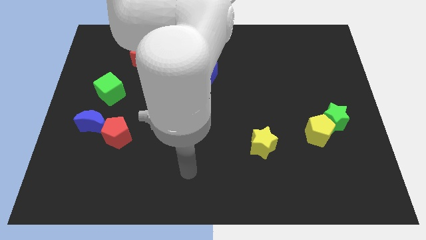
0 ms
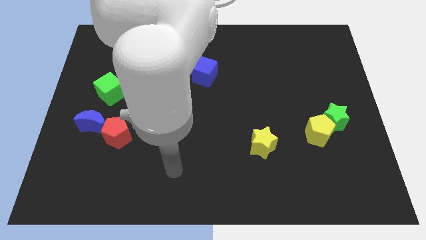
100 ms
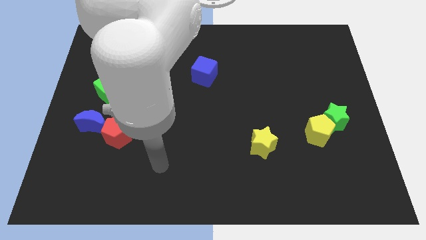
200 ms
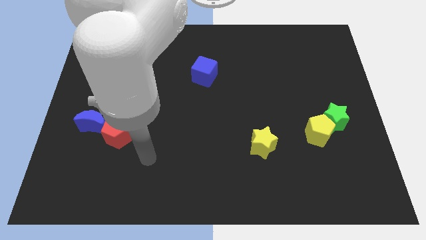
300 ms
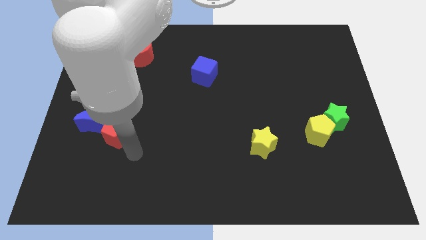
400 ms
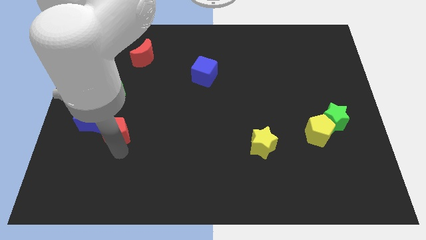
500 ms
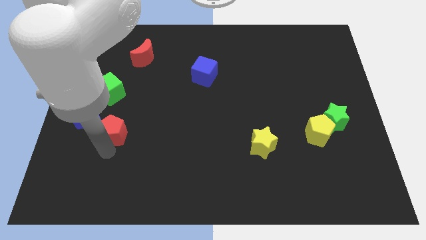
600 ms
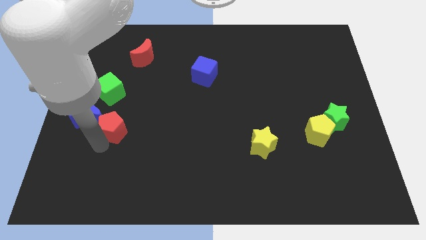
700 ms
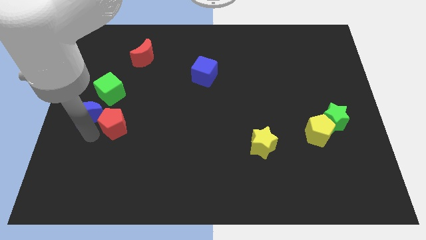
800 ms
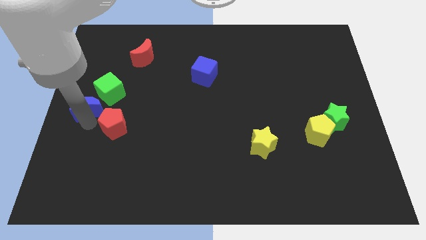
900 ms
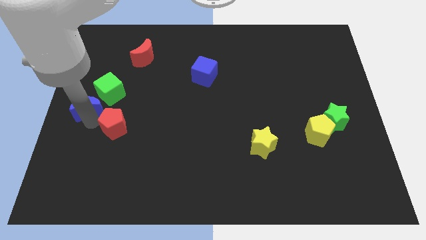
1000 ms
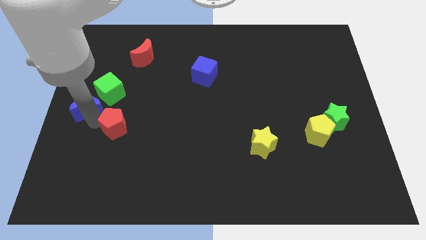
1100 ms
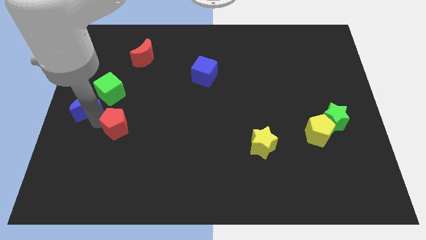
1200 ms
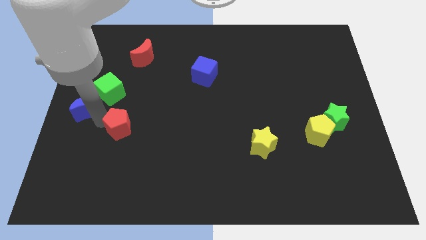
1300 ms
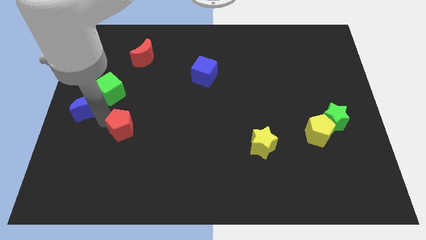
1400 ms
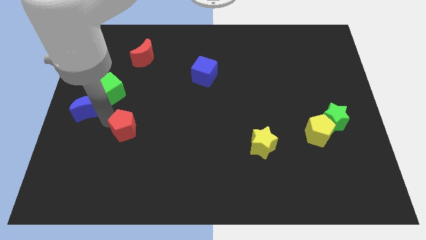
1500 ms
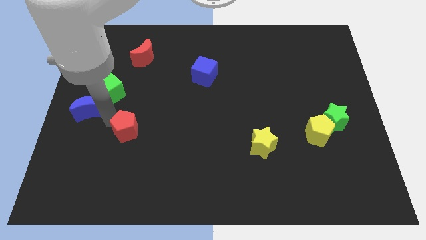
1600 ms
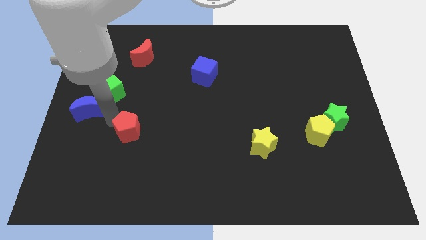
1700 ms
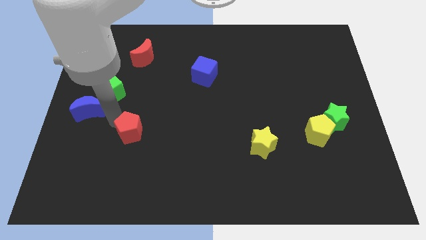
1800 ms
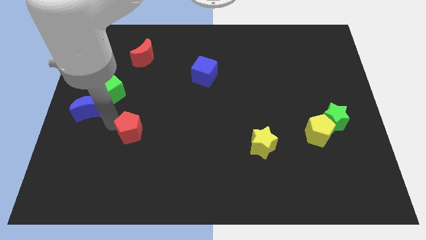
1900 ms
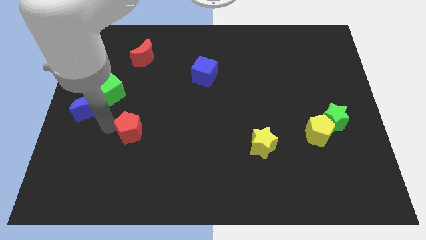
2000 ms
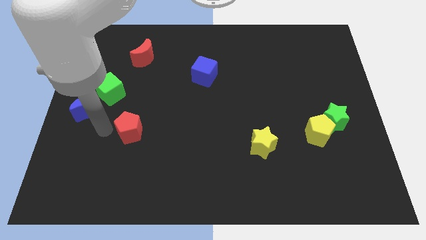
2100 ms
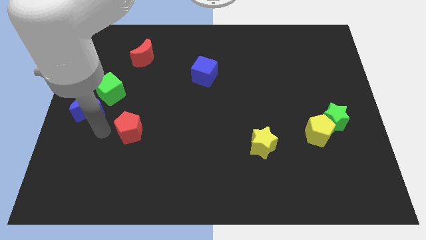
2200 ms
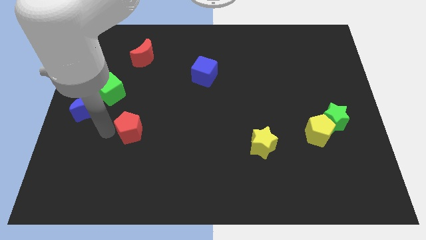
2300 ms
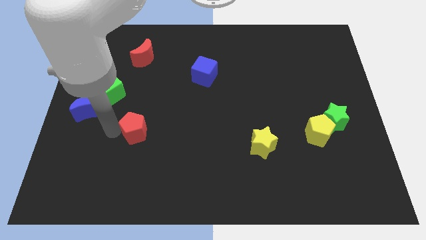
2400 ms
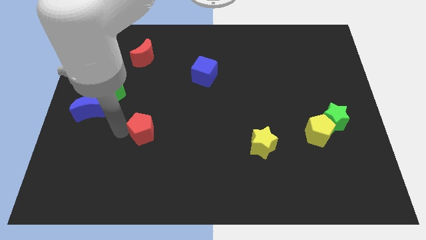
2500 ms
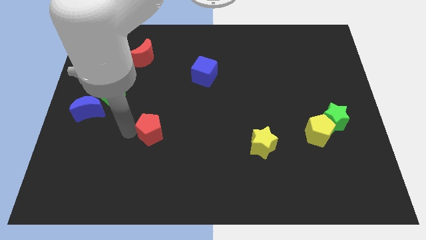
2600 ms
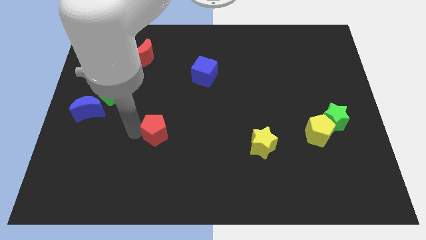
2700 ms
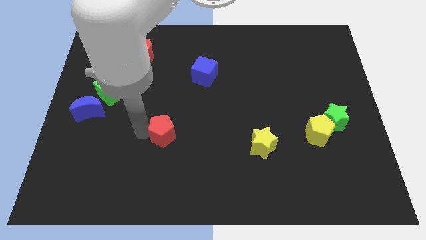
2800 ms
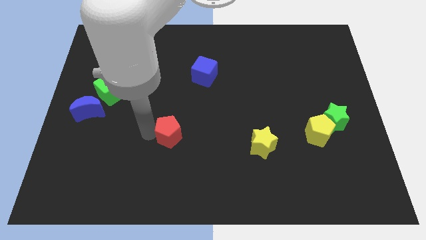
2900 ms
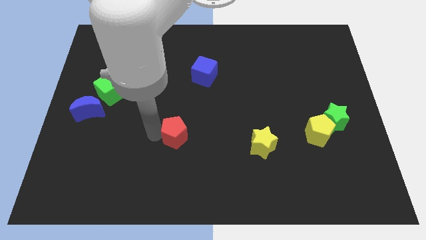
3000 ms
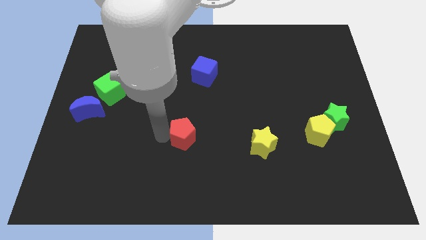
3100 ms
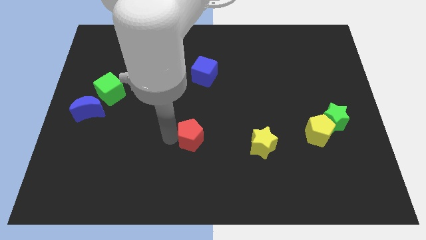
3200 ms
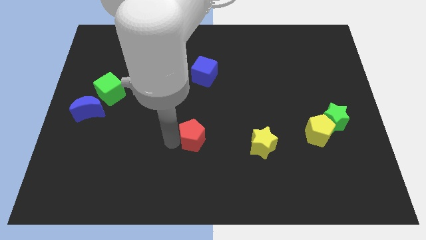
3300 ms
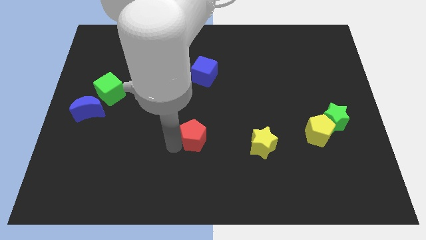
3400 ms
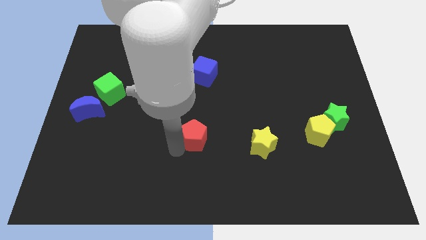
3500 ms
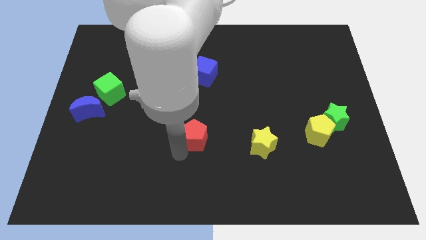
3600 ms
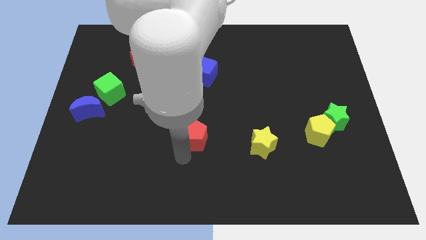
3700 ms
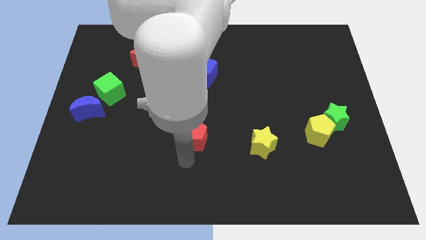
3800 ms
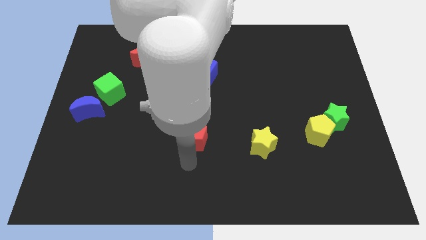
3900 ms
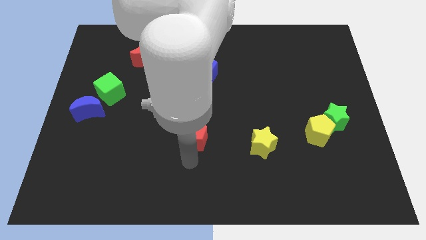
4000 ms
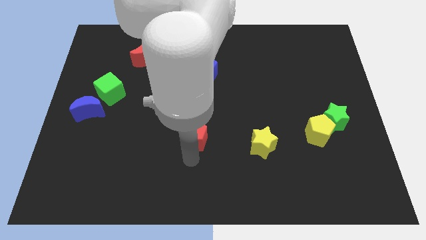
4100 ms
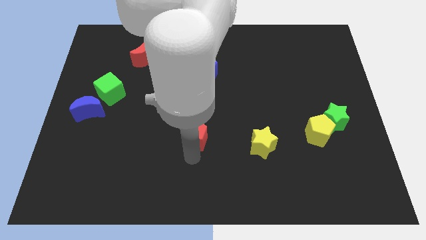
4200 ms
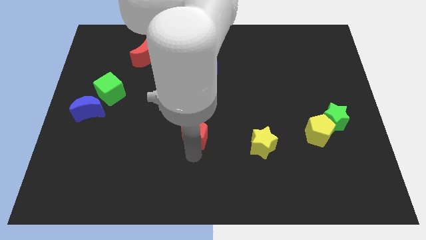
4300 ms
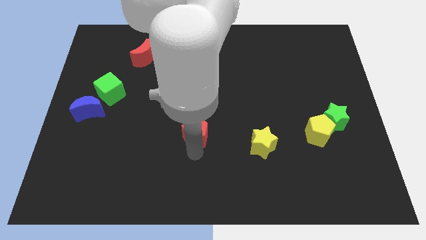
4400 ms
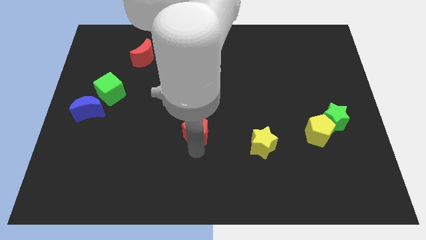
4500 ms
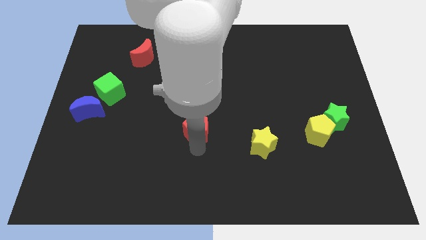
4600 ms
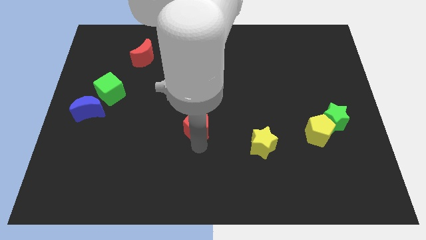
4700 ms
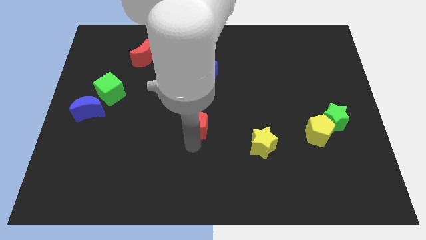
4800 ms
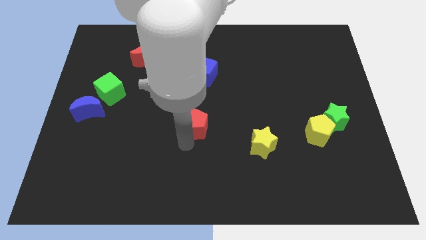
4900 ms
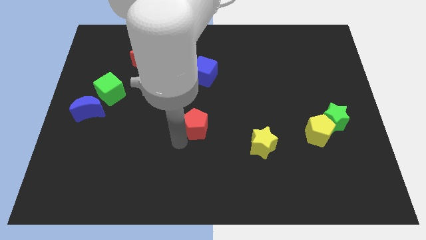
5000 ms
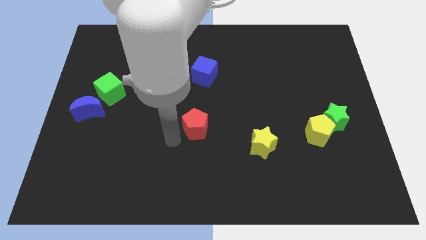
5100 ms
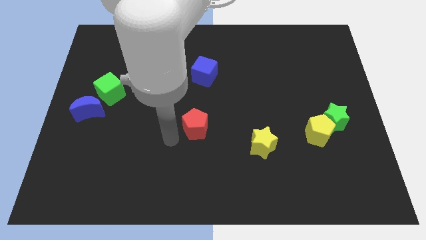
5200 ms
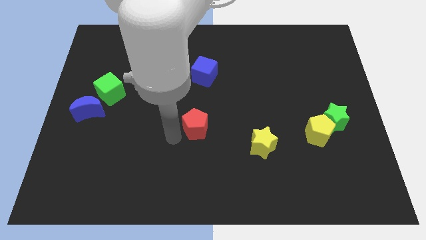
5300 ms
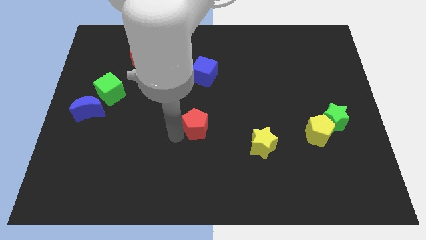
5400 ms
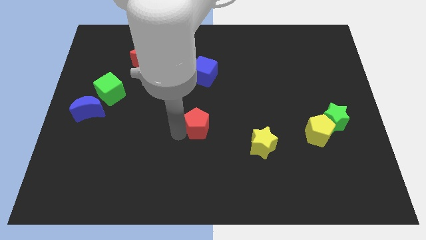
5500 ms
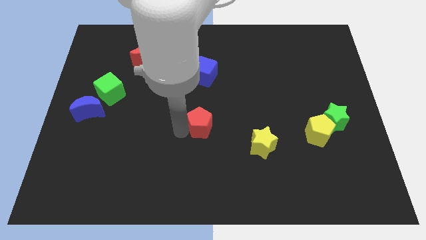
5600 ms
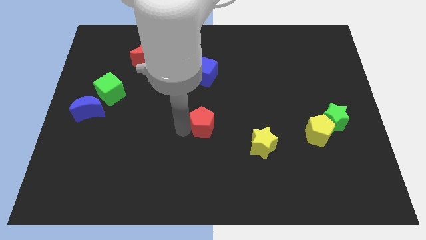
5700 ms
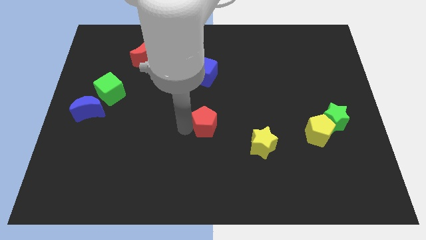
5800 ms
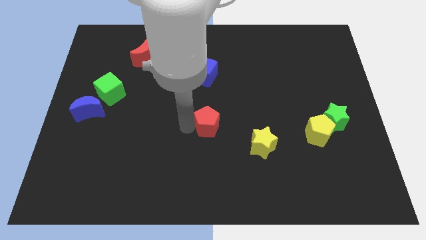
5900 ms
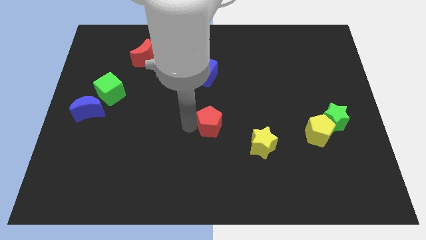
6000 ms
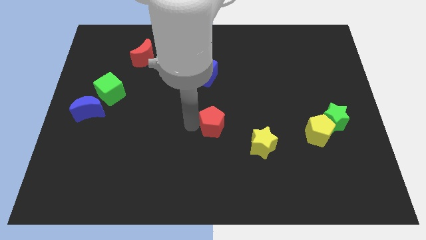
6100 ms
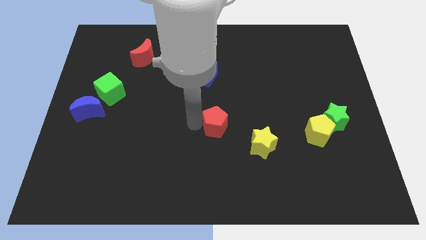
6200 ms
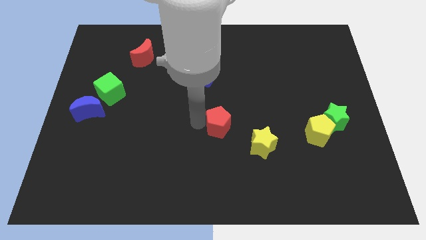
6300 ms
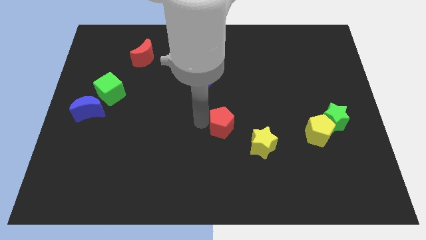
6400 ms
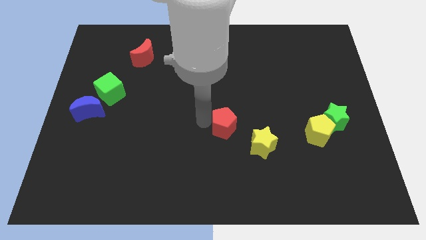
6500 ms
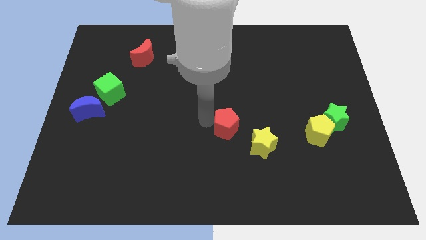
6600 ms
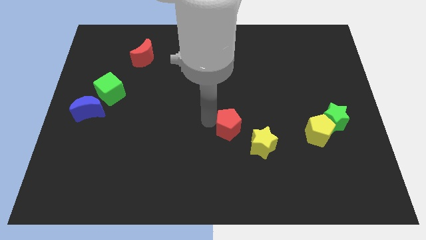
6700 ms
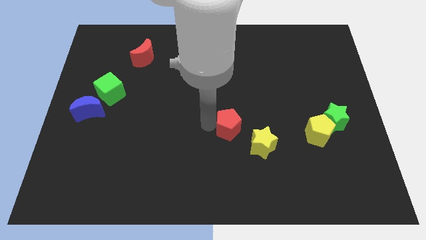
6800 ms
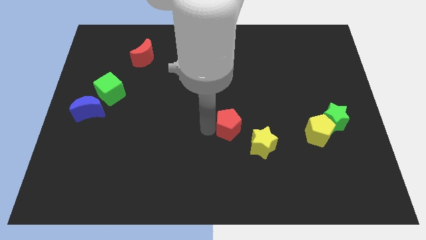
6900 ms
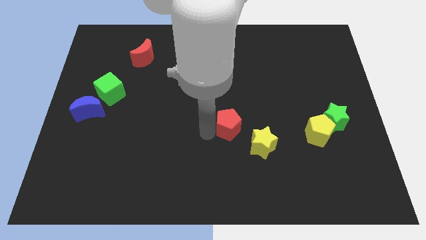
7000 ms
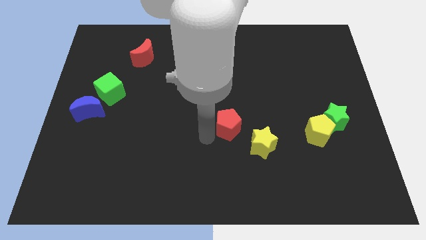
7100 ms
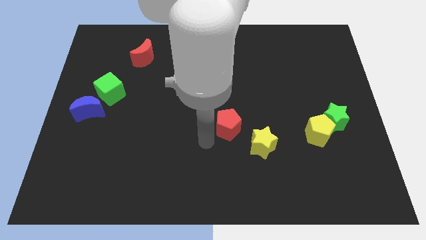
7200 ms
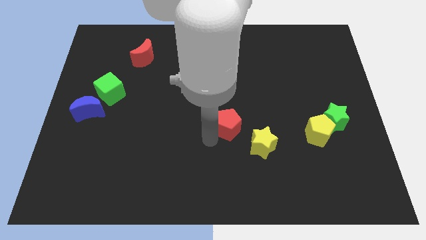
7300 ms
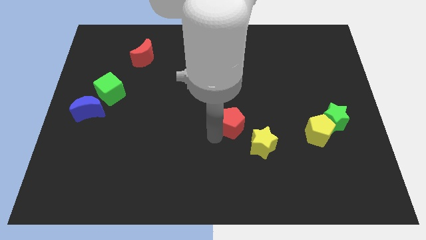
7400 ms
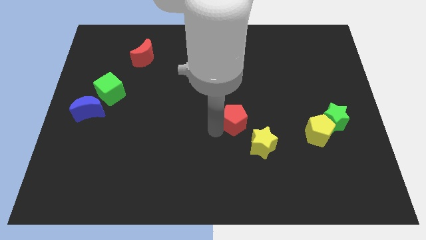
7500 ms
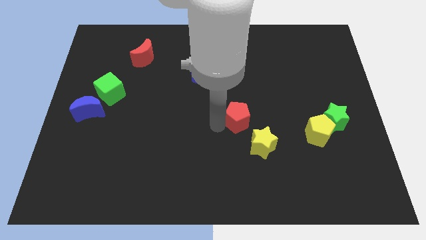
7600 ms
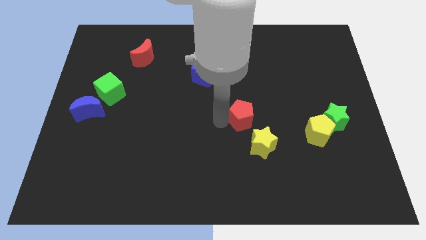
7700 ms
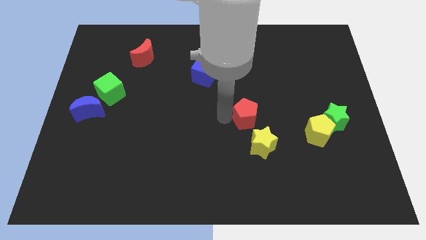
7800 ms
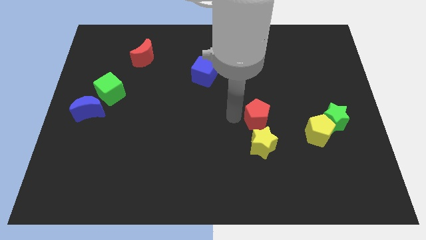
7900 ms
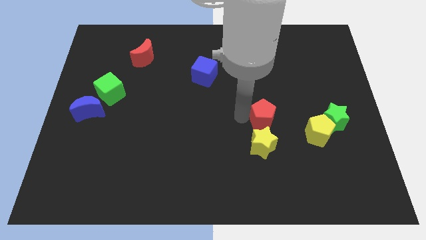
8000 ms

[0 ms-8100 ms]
put the red pentagon just left of the green star
